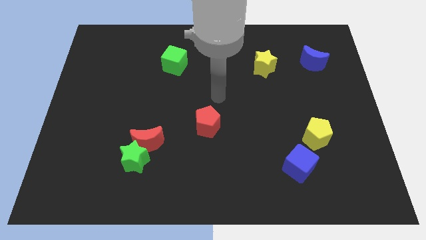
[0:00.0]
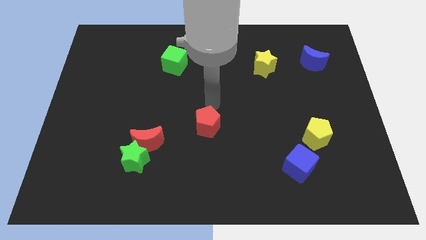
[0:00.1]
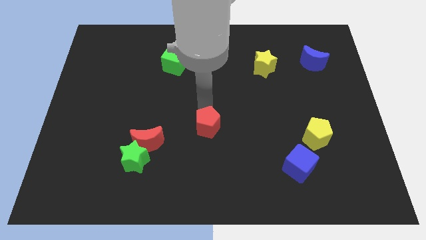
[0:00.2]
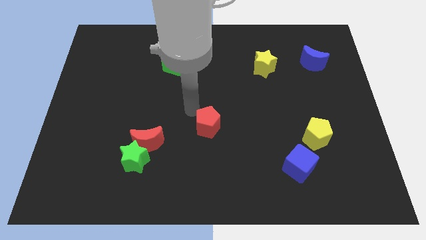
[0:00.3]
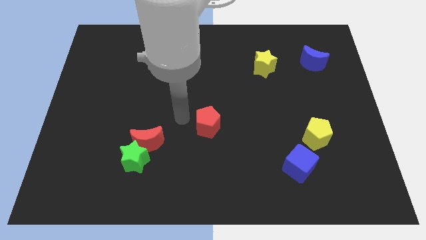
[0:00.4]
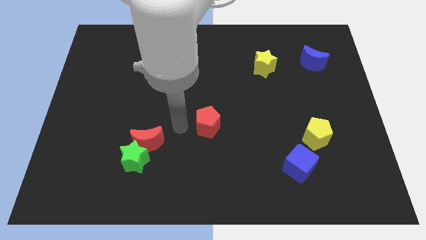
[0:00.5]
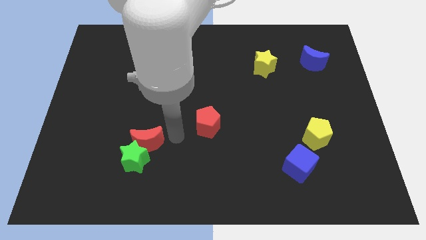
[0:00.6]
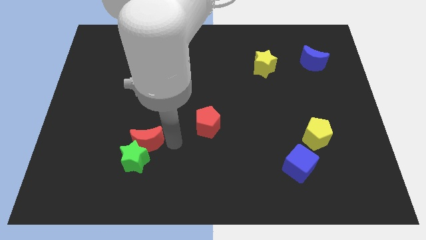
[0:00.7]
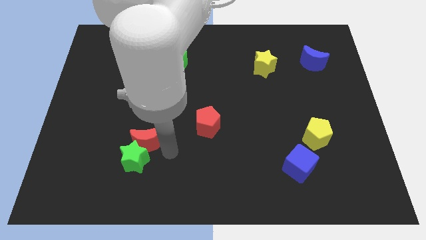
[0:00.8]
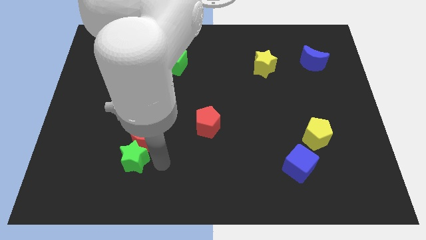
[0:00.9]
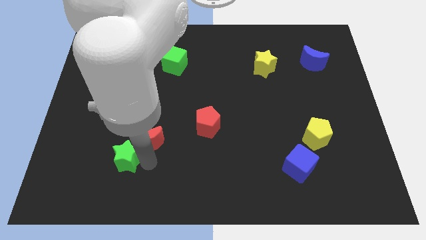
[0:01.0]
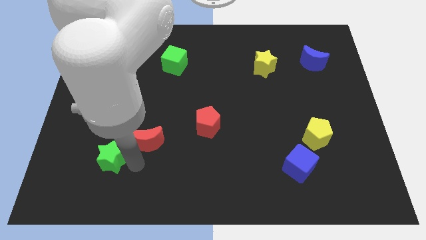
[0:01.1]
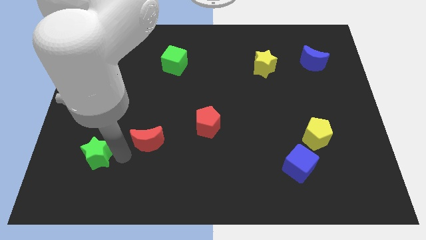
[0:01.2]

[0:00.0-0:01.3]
pull the red moon apart from the green star

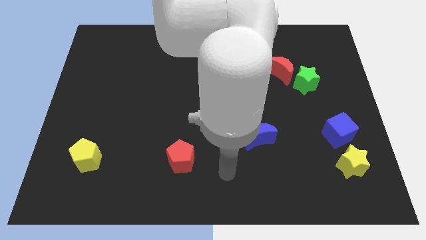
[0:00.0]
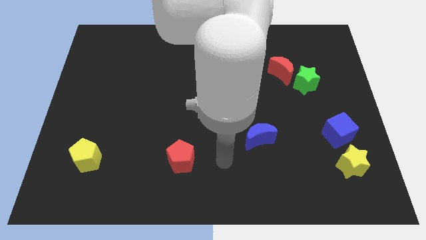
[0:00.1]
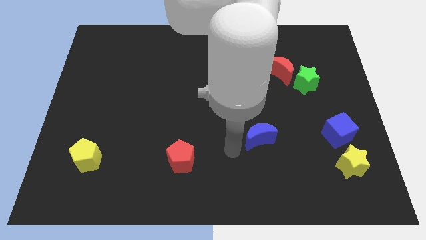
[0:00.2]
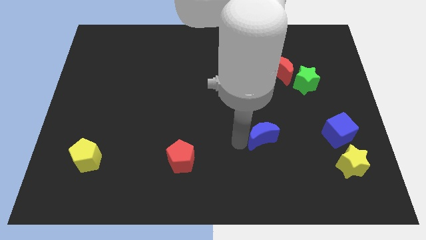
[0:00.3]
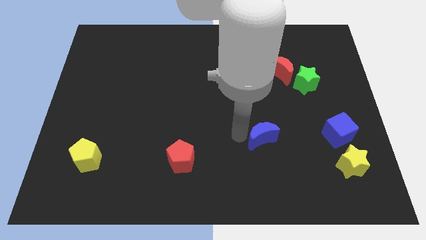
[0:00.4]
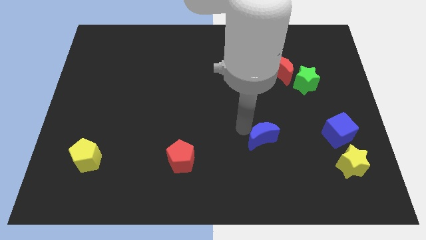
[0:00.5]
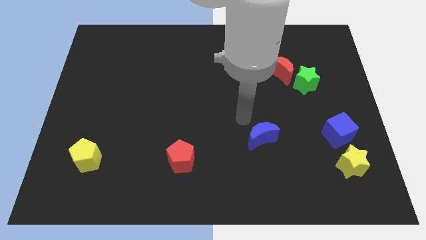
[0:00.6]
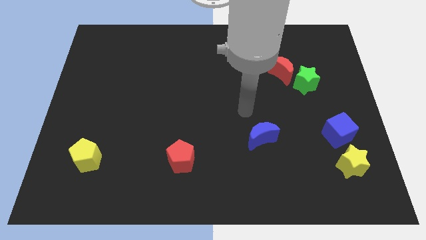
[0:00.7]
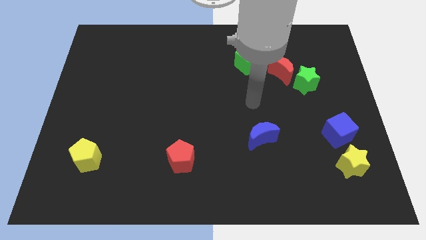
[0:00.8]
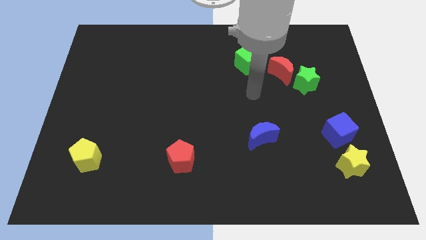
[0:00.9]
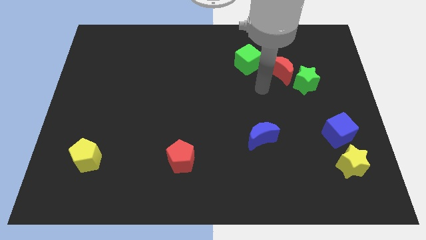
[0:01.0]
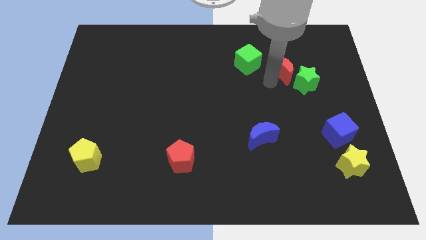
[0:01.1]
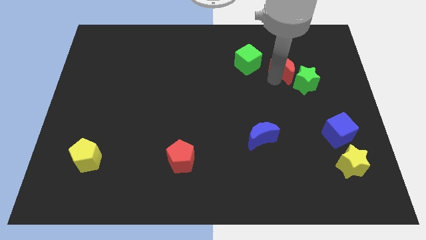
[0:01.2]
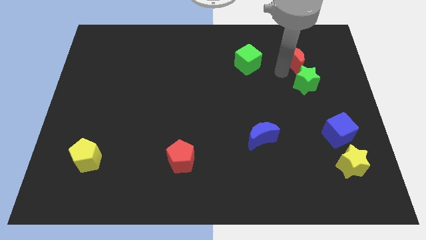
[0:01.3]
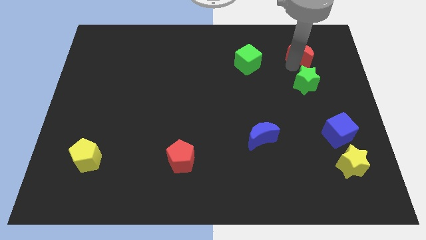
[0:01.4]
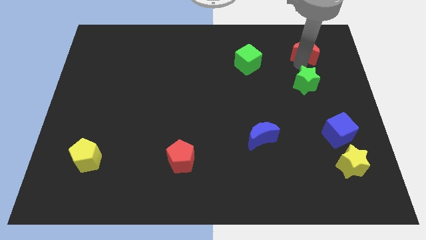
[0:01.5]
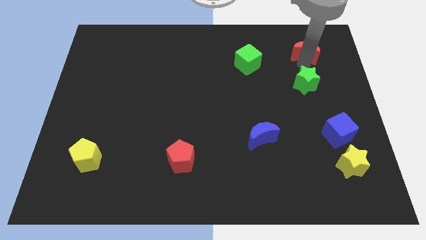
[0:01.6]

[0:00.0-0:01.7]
pull the green star apart from the red moon

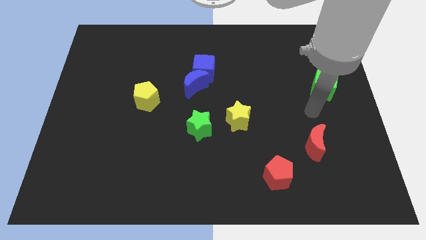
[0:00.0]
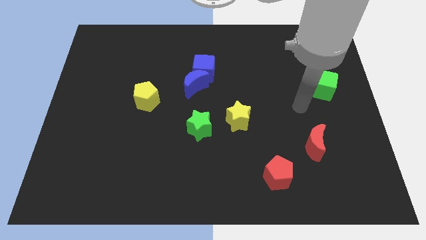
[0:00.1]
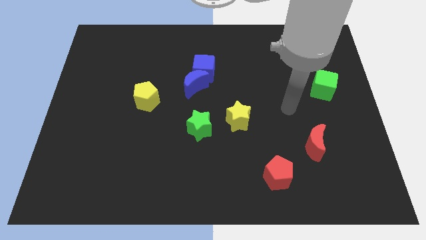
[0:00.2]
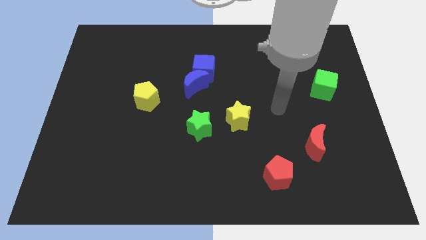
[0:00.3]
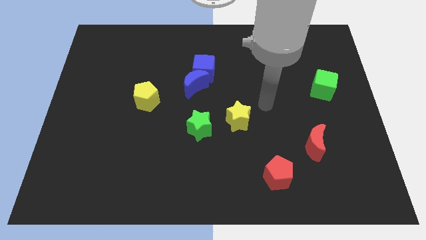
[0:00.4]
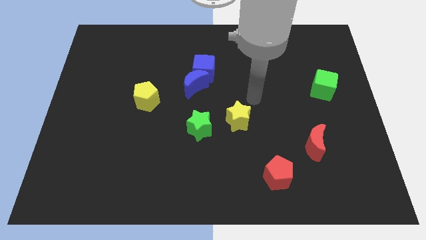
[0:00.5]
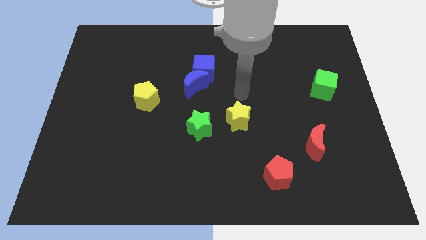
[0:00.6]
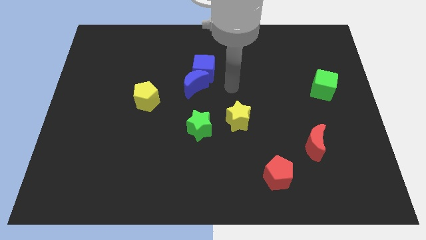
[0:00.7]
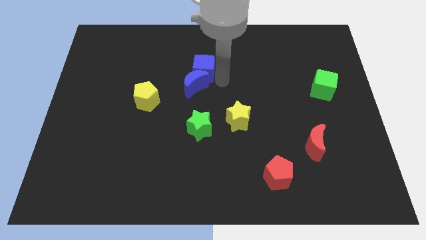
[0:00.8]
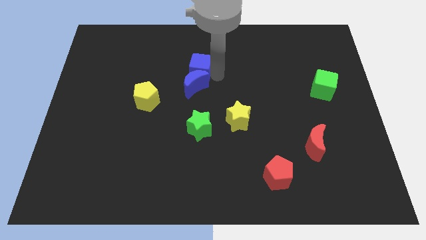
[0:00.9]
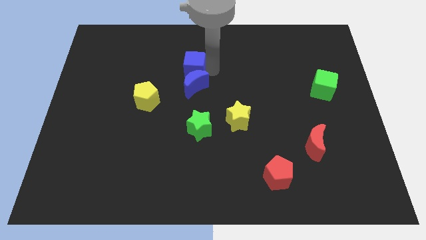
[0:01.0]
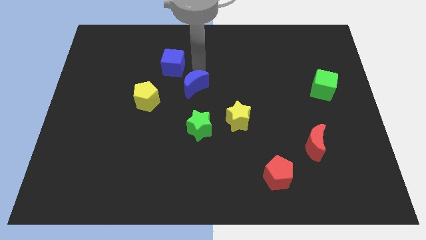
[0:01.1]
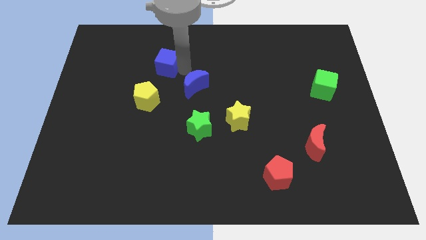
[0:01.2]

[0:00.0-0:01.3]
move the blue moon away from the blue cube

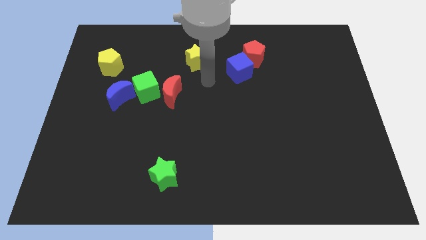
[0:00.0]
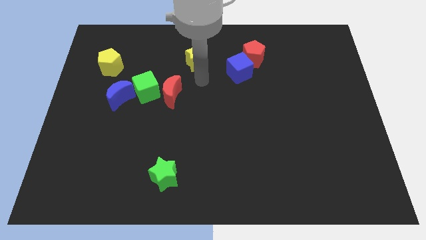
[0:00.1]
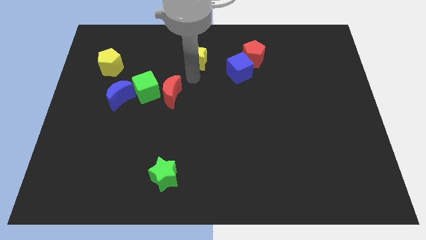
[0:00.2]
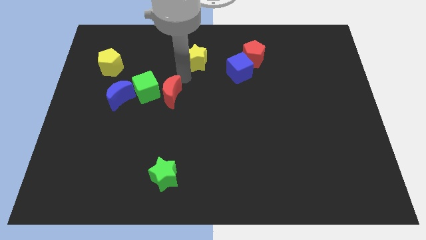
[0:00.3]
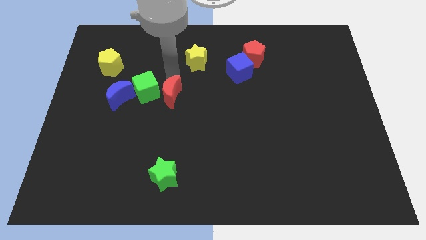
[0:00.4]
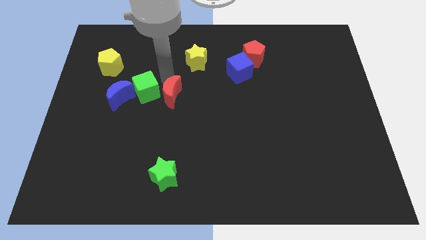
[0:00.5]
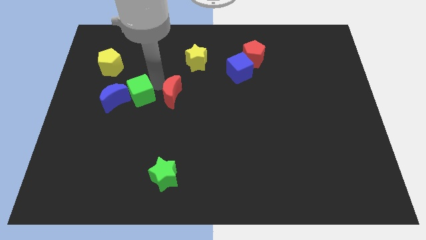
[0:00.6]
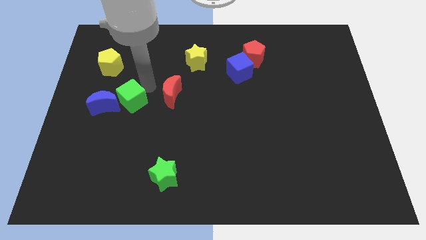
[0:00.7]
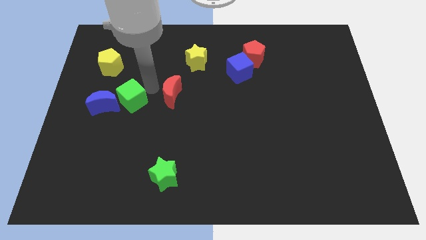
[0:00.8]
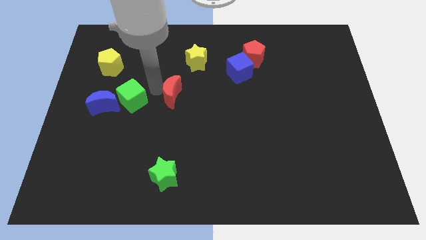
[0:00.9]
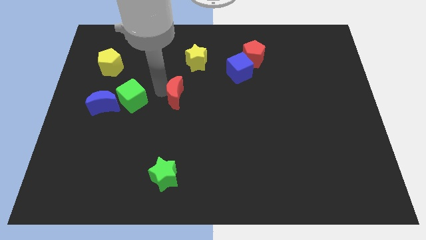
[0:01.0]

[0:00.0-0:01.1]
pull the red moon apart from the green cube

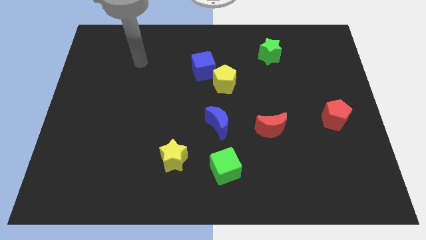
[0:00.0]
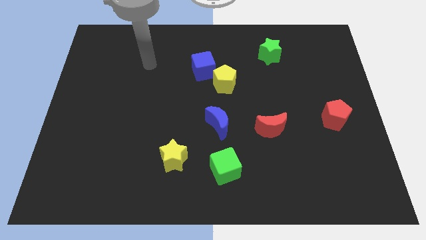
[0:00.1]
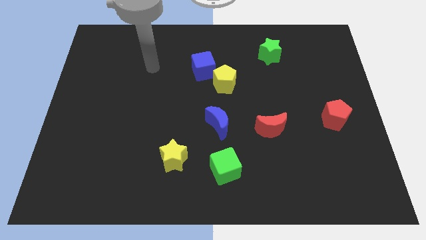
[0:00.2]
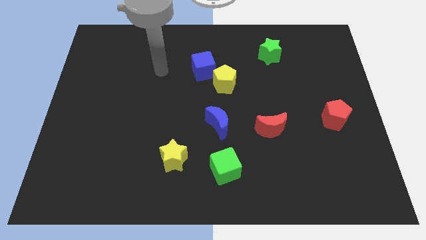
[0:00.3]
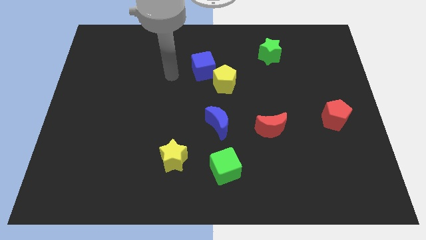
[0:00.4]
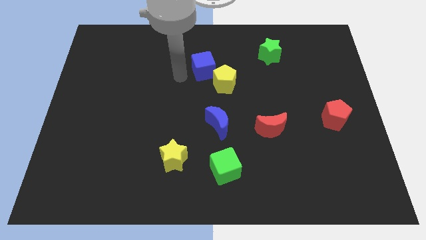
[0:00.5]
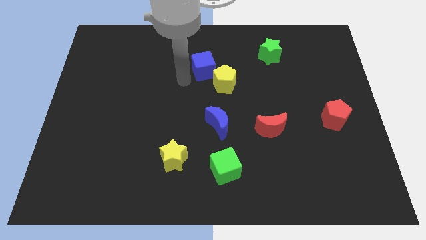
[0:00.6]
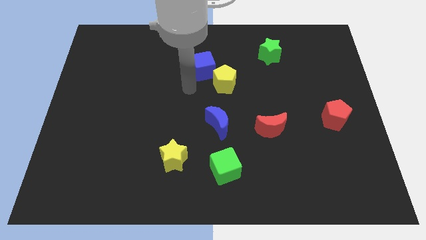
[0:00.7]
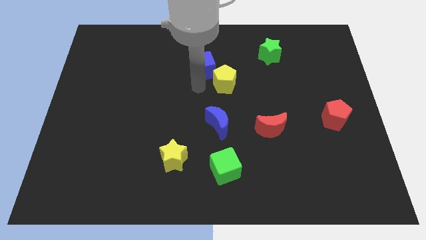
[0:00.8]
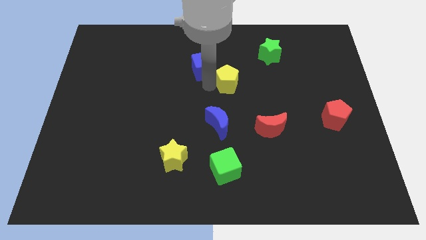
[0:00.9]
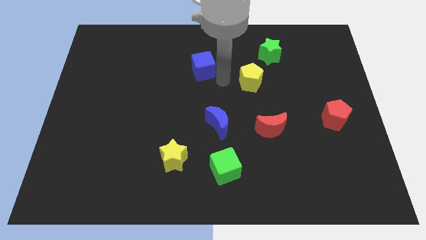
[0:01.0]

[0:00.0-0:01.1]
separate the blue cube from the yellow pentagon

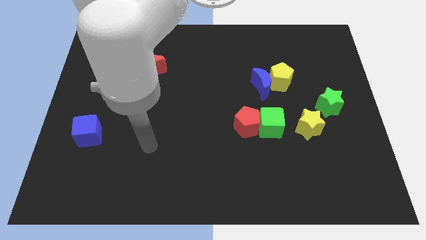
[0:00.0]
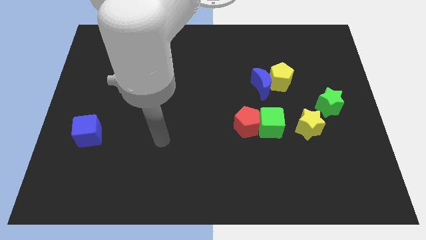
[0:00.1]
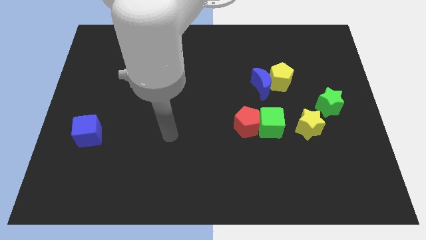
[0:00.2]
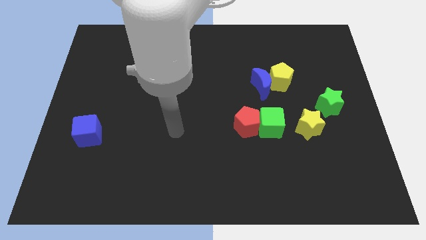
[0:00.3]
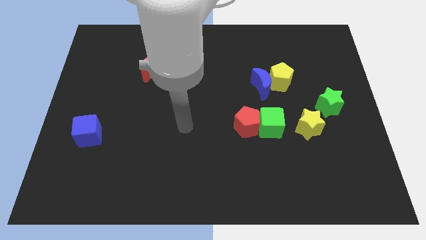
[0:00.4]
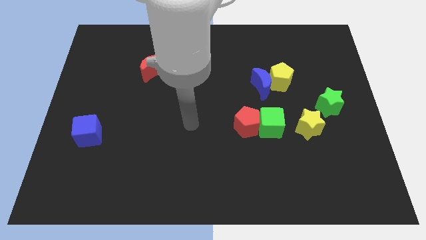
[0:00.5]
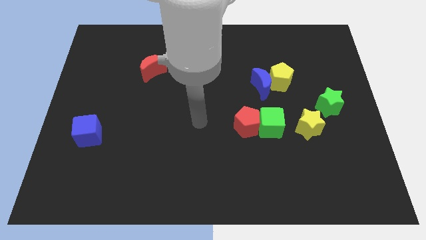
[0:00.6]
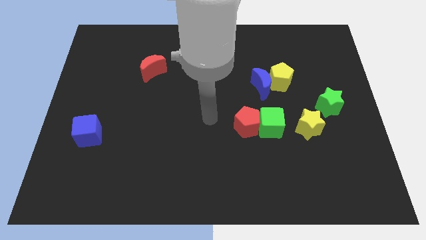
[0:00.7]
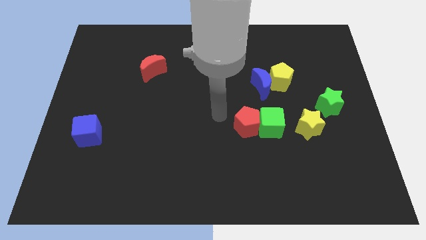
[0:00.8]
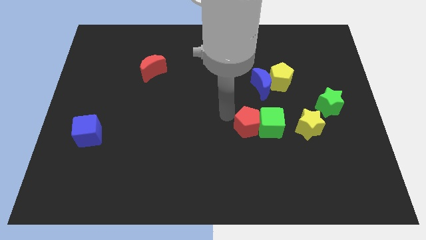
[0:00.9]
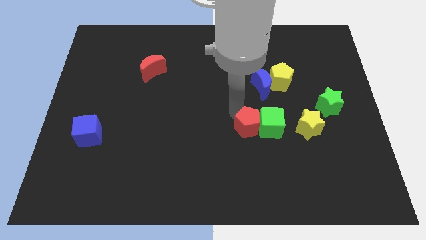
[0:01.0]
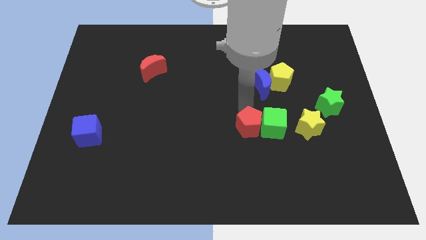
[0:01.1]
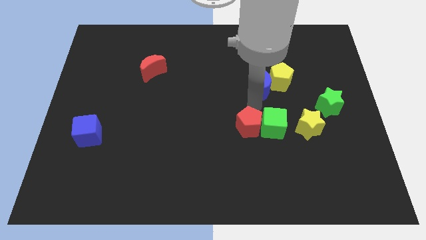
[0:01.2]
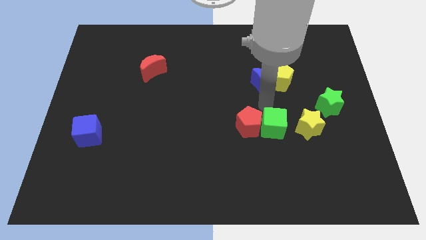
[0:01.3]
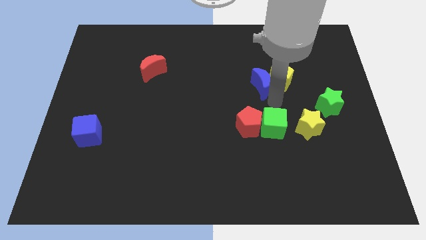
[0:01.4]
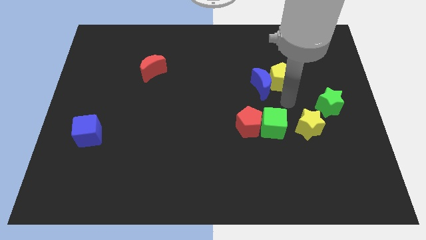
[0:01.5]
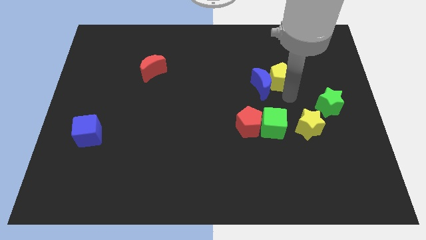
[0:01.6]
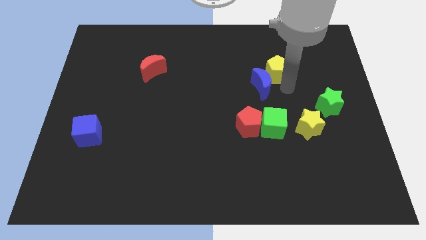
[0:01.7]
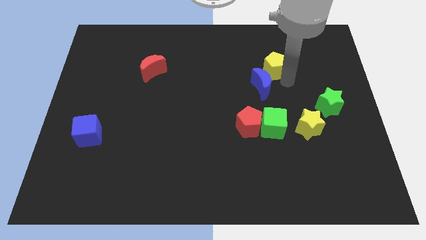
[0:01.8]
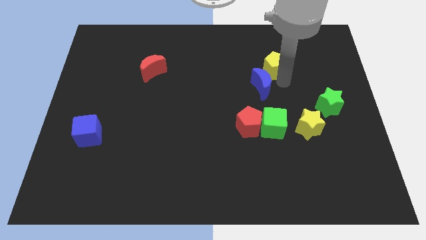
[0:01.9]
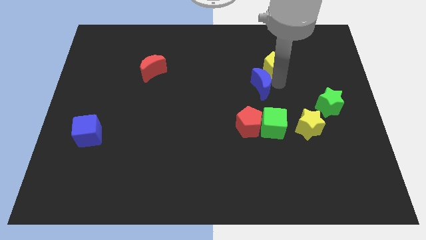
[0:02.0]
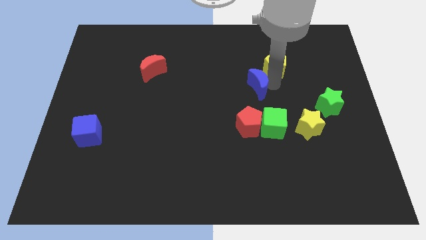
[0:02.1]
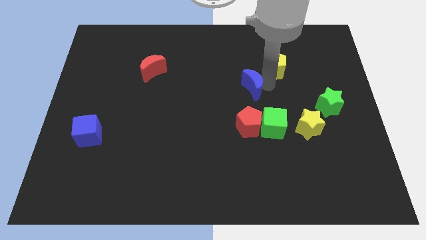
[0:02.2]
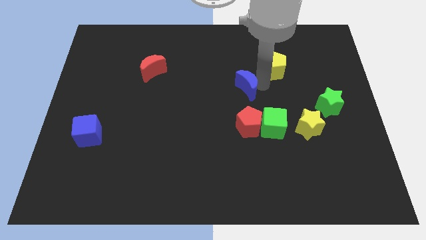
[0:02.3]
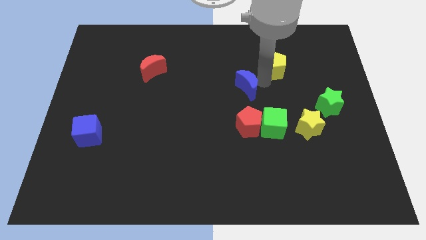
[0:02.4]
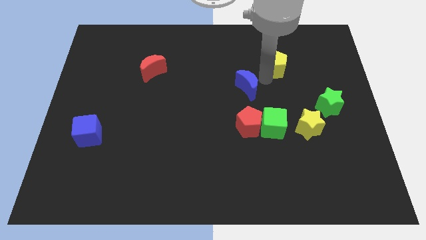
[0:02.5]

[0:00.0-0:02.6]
separate the blue moon from the yellow pentagon
